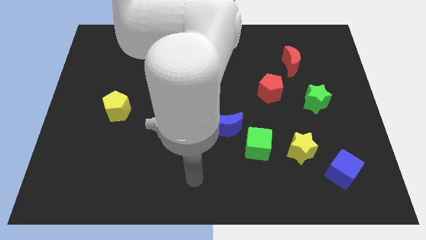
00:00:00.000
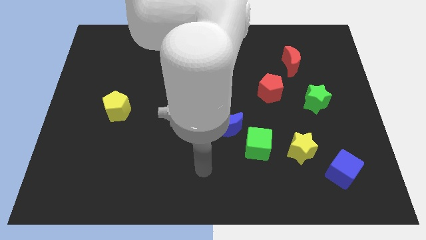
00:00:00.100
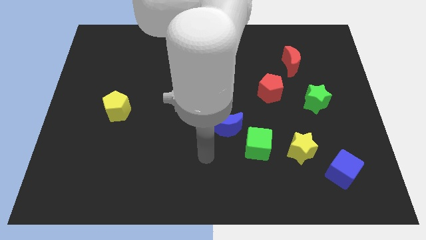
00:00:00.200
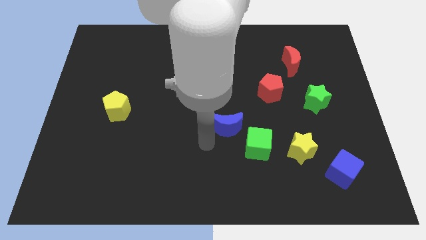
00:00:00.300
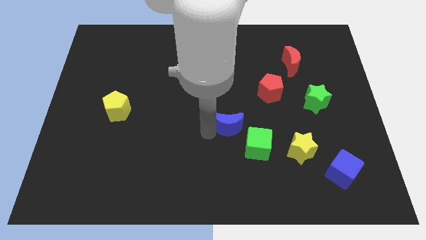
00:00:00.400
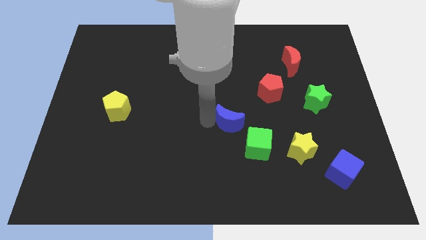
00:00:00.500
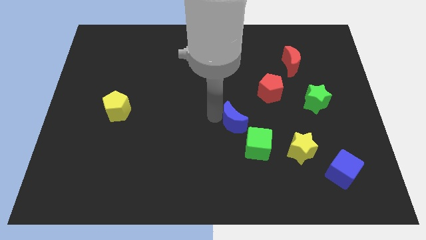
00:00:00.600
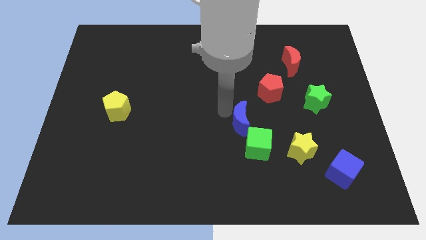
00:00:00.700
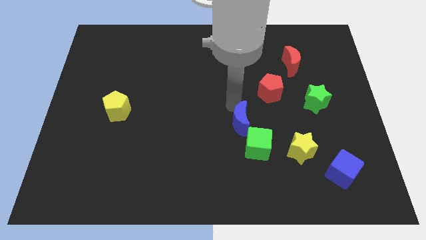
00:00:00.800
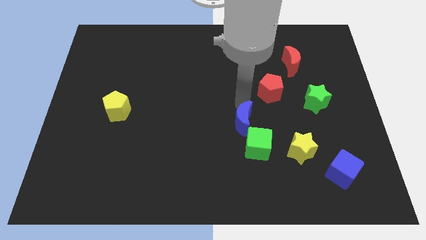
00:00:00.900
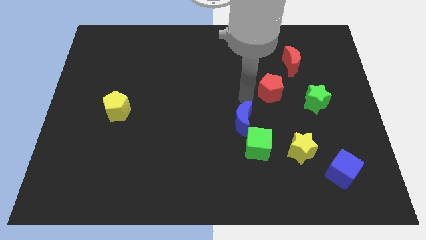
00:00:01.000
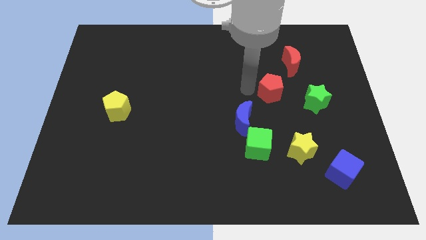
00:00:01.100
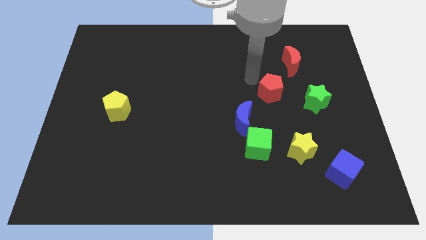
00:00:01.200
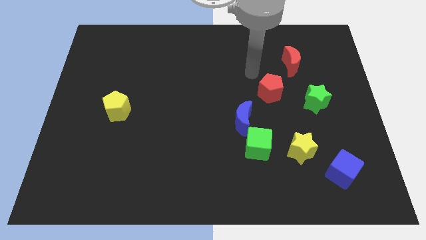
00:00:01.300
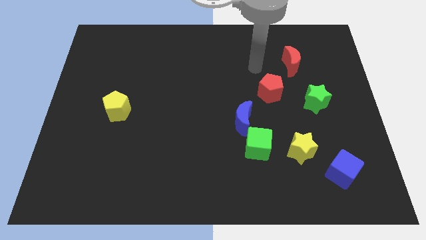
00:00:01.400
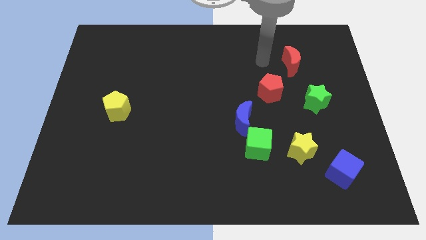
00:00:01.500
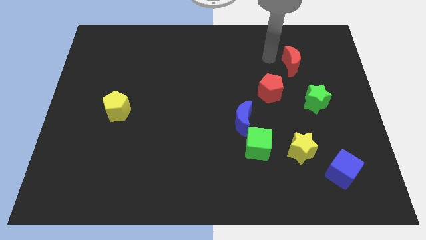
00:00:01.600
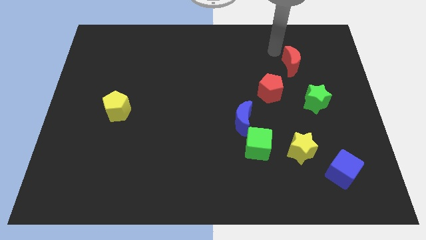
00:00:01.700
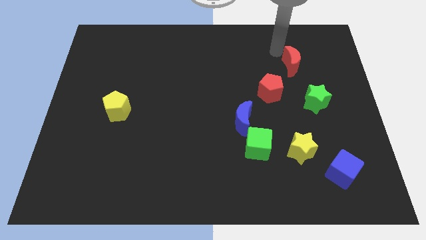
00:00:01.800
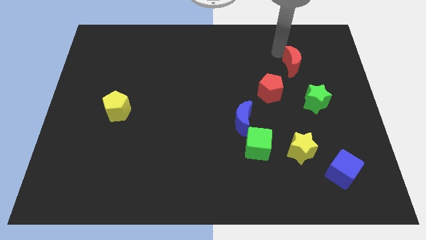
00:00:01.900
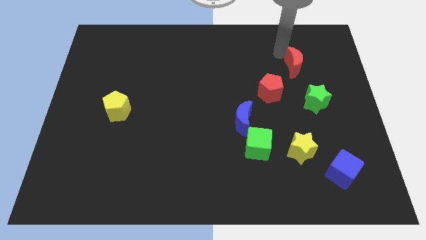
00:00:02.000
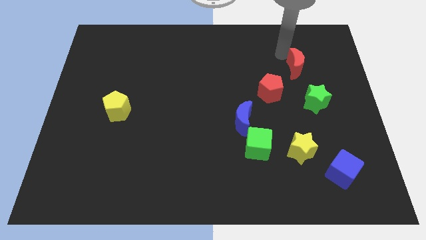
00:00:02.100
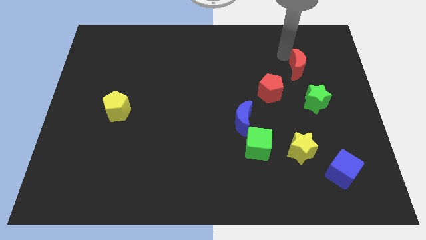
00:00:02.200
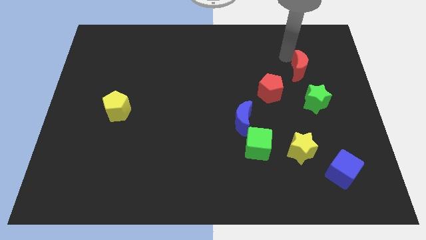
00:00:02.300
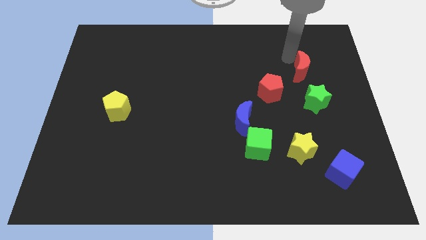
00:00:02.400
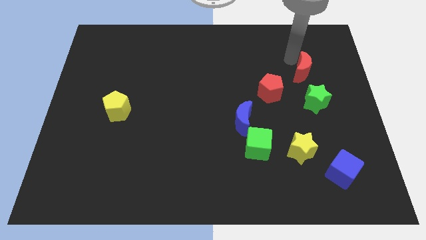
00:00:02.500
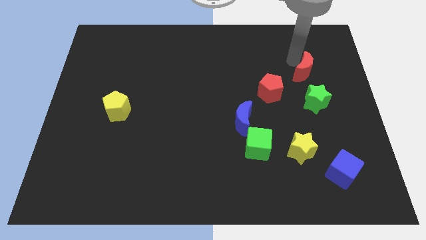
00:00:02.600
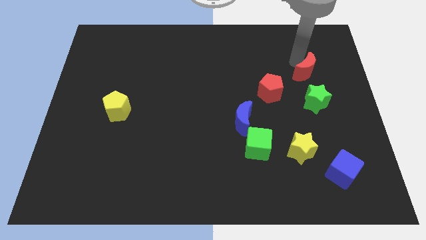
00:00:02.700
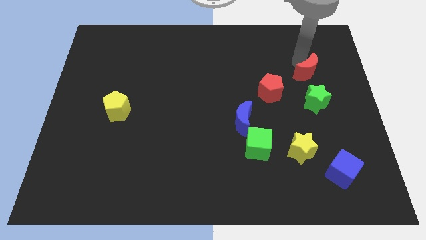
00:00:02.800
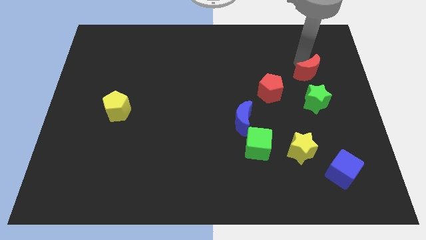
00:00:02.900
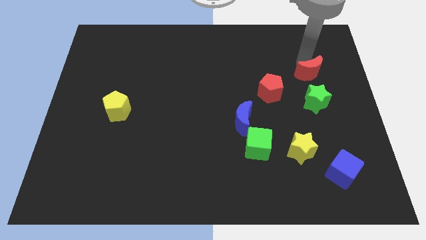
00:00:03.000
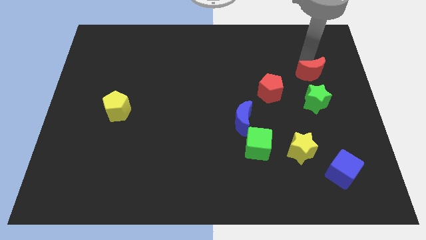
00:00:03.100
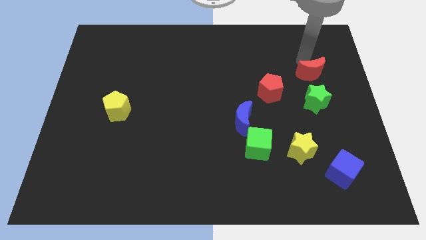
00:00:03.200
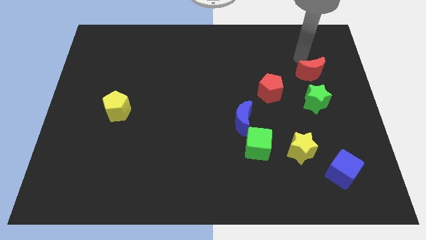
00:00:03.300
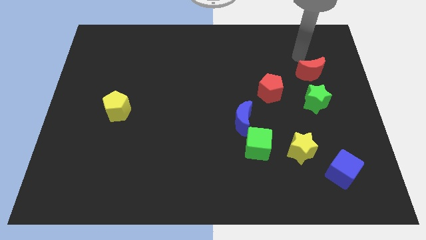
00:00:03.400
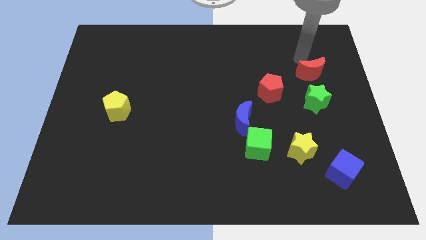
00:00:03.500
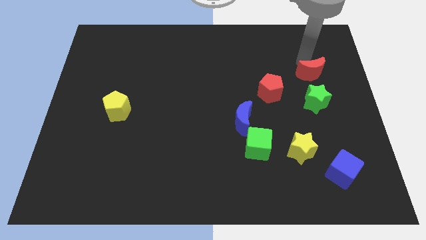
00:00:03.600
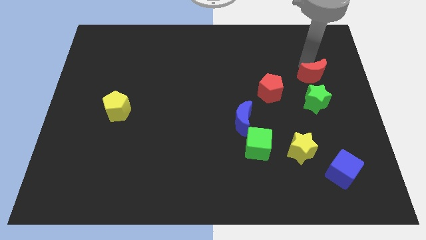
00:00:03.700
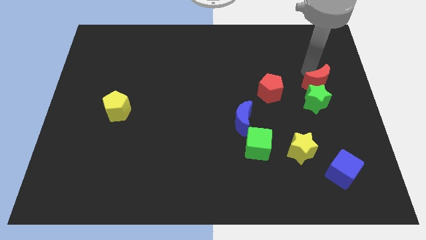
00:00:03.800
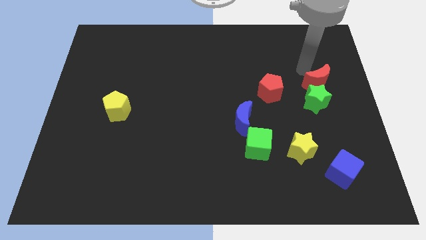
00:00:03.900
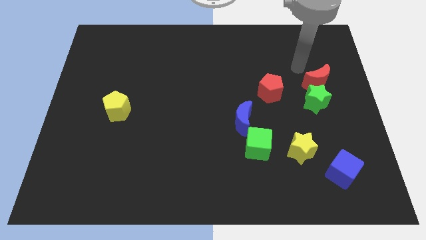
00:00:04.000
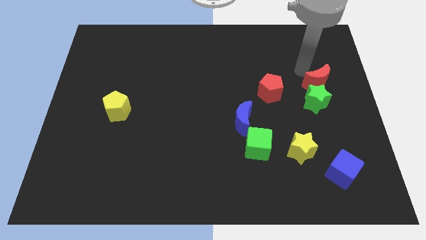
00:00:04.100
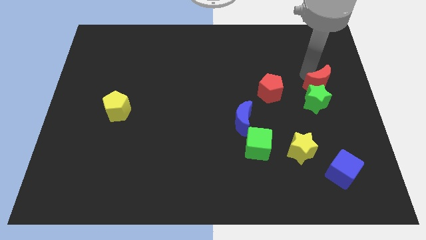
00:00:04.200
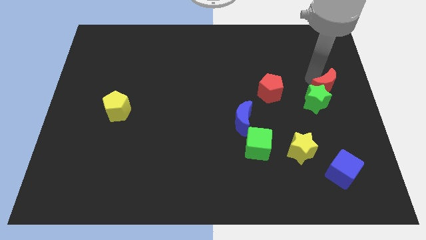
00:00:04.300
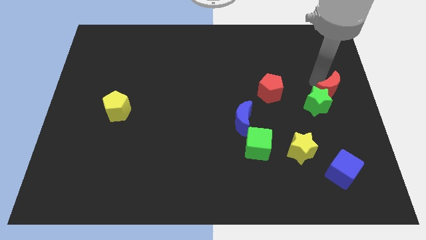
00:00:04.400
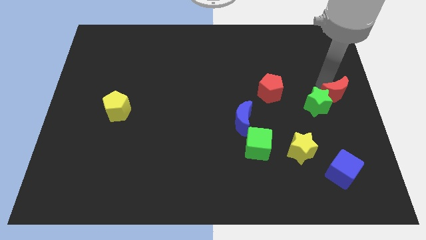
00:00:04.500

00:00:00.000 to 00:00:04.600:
slightly move the red moon downwards

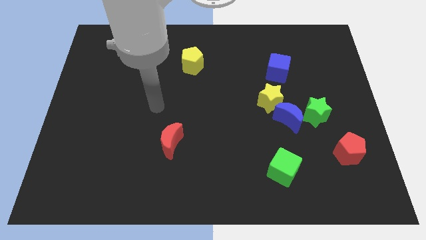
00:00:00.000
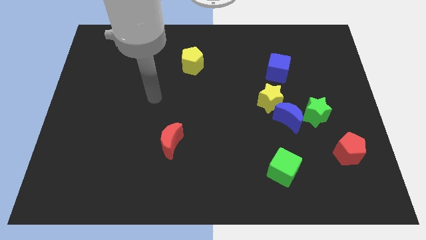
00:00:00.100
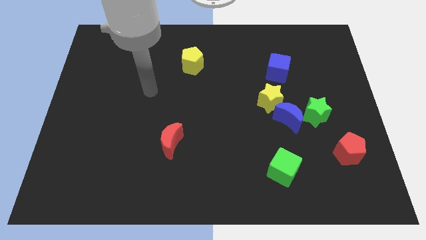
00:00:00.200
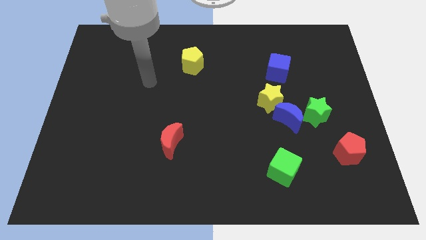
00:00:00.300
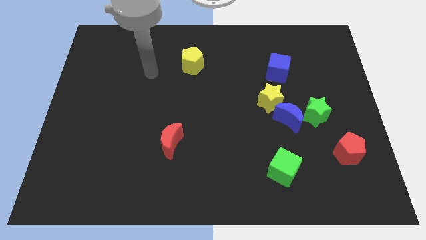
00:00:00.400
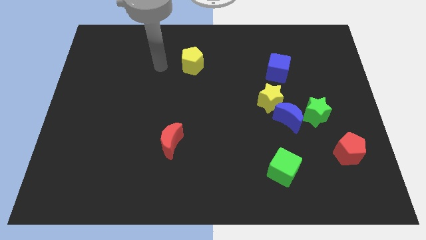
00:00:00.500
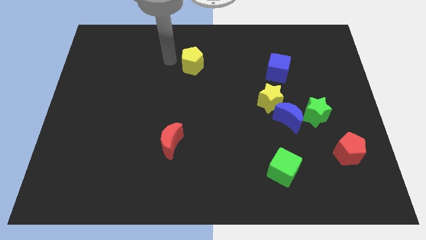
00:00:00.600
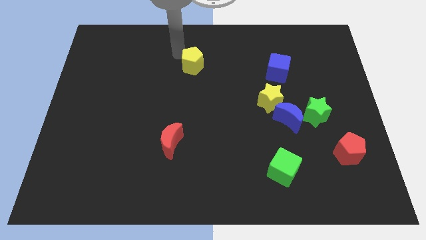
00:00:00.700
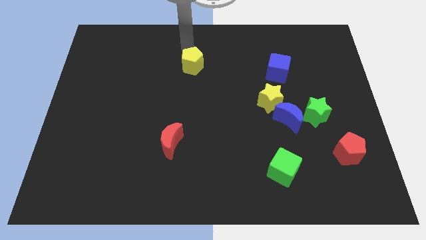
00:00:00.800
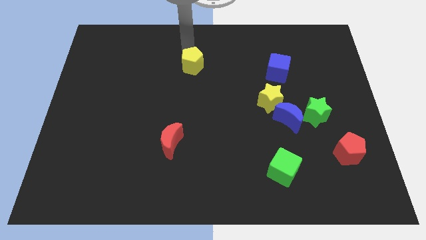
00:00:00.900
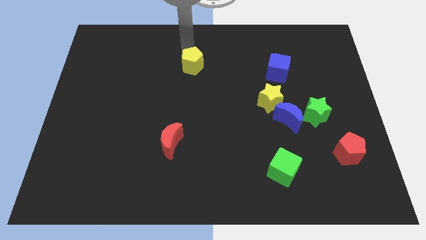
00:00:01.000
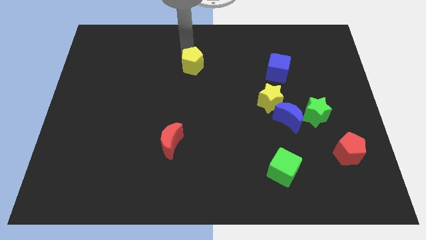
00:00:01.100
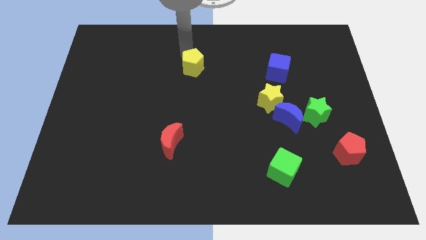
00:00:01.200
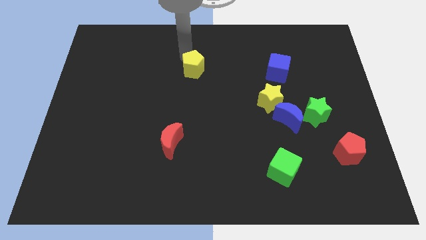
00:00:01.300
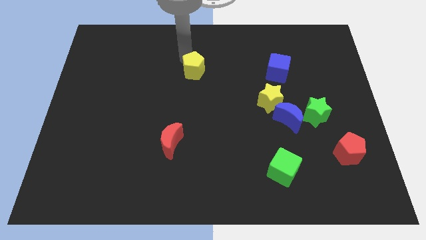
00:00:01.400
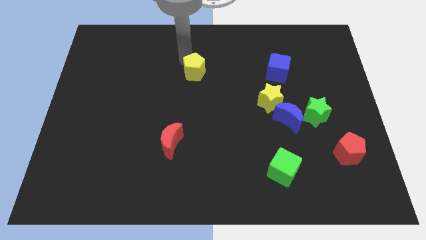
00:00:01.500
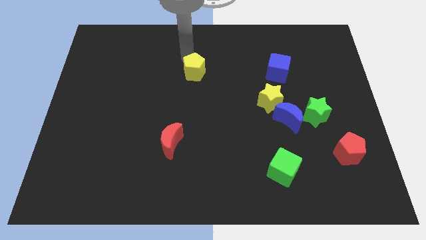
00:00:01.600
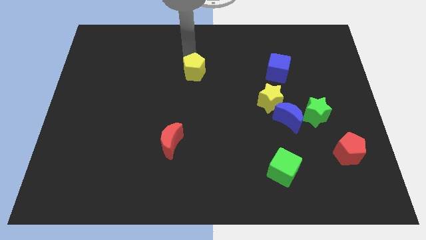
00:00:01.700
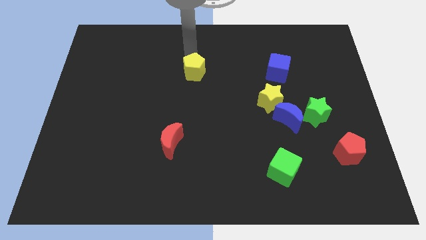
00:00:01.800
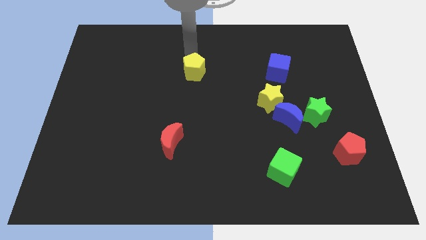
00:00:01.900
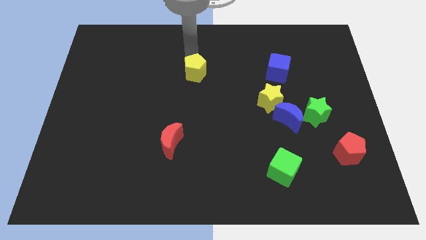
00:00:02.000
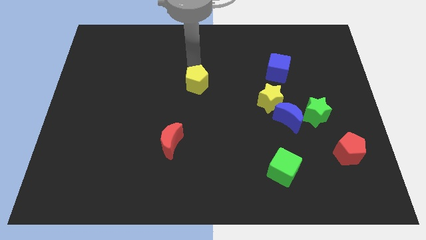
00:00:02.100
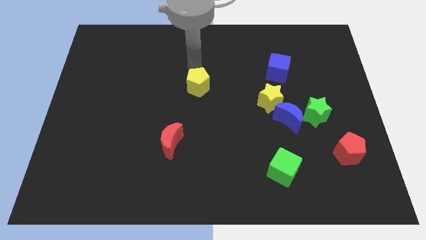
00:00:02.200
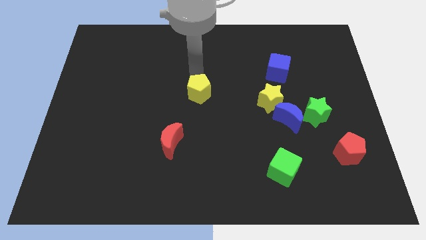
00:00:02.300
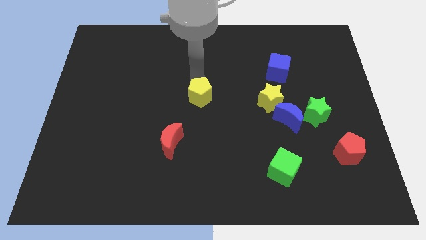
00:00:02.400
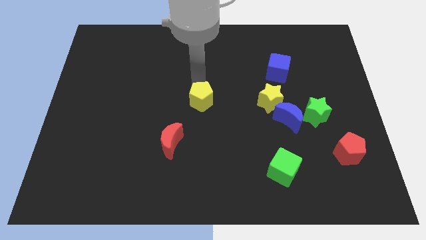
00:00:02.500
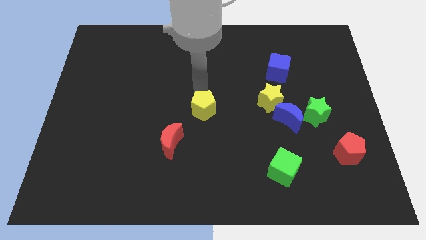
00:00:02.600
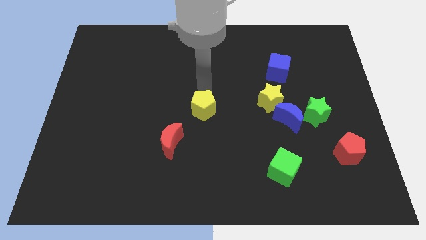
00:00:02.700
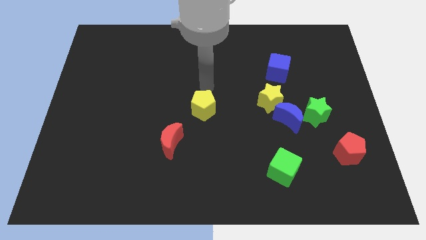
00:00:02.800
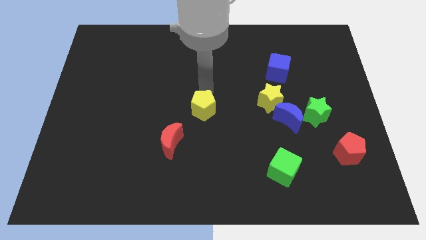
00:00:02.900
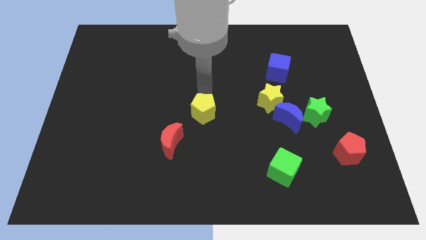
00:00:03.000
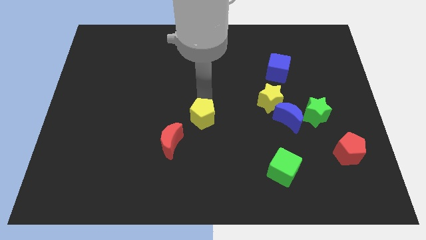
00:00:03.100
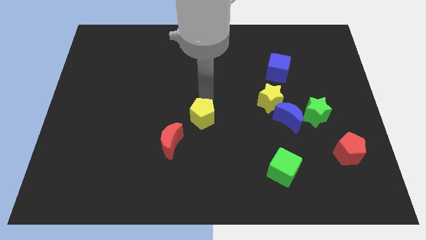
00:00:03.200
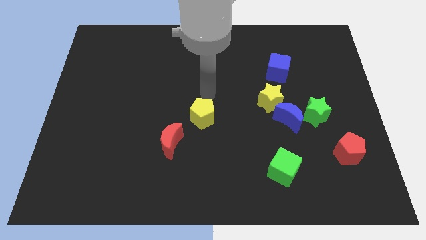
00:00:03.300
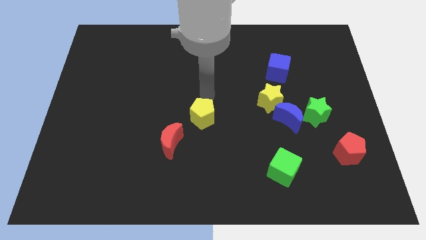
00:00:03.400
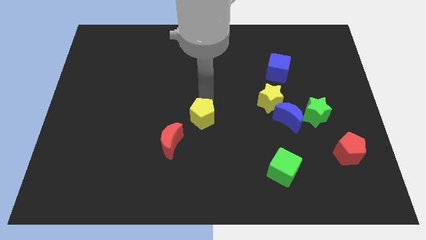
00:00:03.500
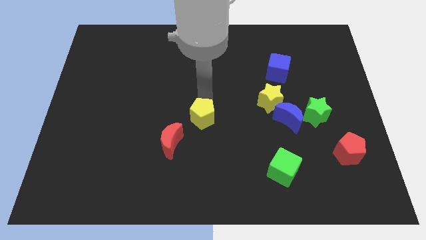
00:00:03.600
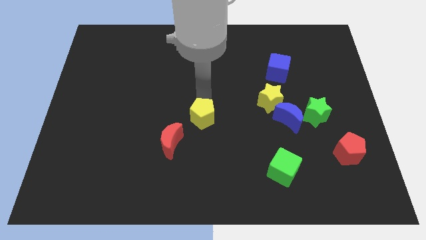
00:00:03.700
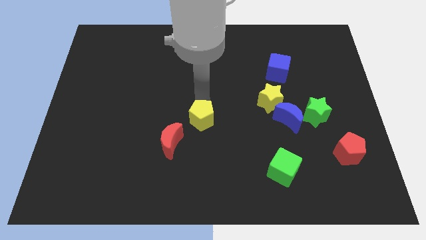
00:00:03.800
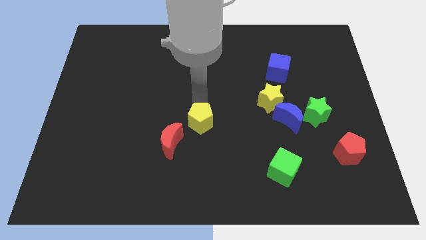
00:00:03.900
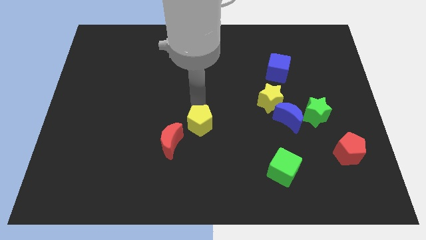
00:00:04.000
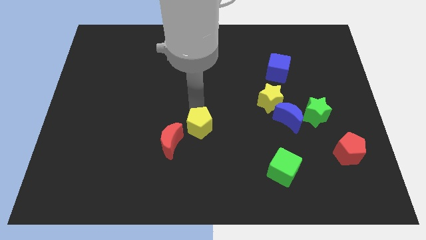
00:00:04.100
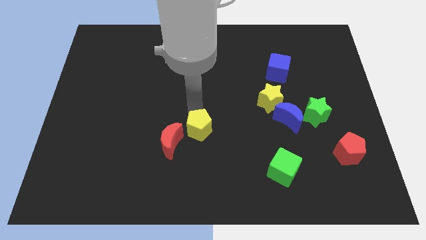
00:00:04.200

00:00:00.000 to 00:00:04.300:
slide the yellow pentagon down
